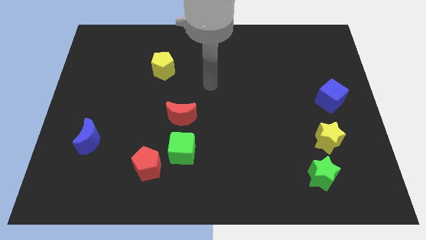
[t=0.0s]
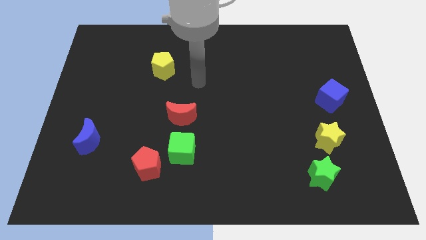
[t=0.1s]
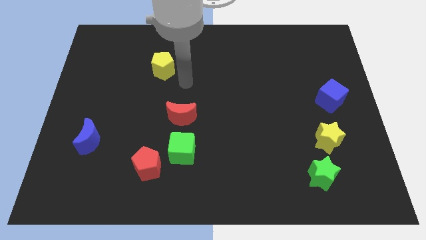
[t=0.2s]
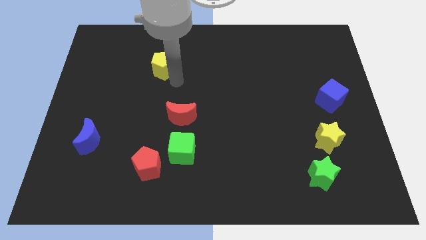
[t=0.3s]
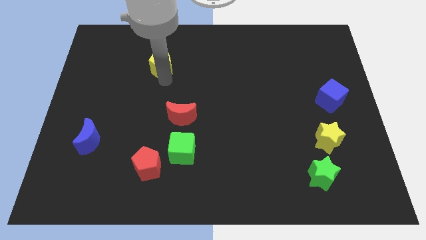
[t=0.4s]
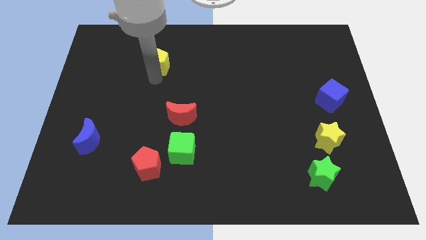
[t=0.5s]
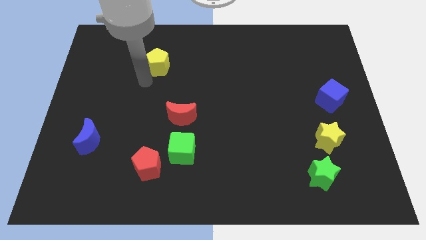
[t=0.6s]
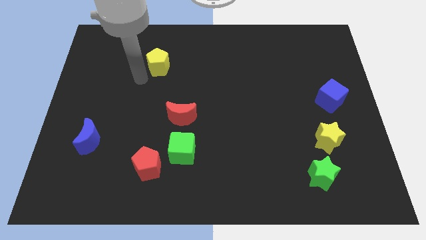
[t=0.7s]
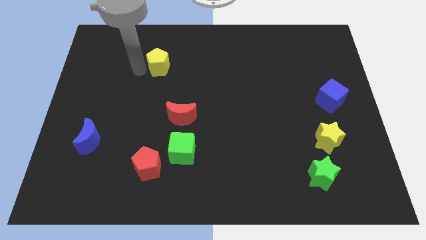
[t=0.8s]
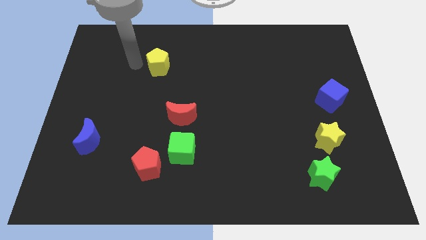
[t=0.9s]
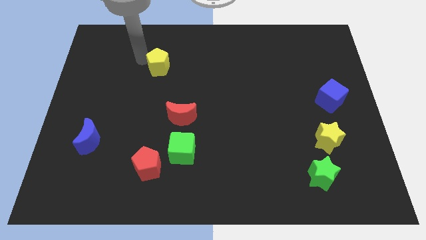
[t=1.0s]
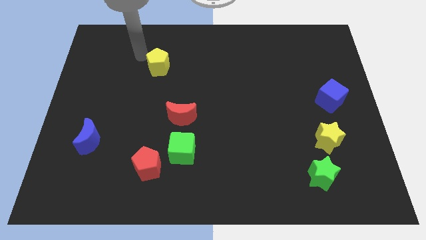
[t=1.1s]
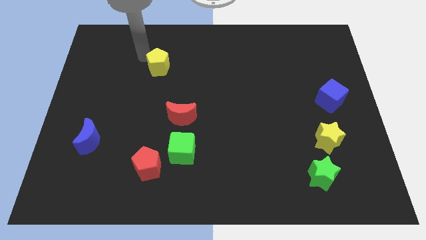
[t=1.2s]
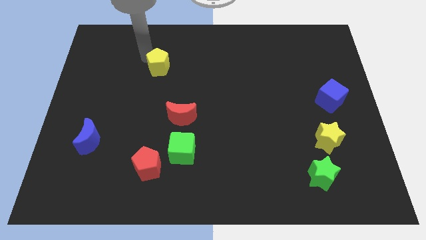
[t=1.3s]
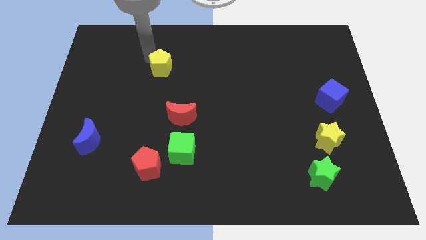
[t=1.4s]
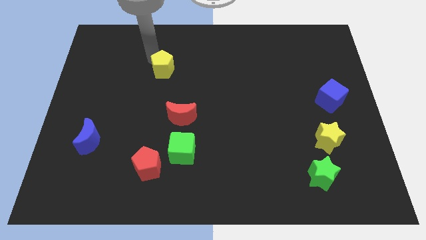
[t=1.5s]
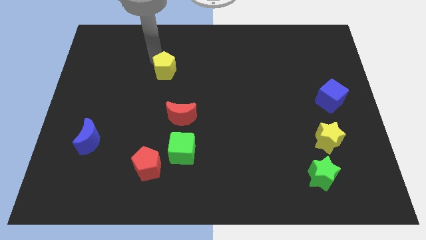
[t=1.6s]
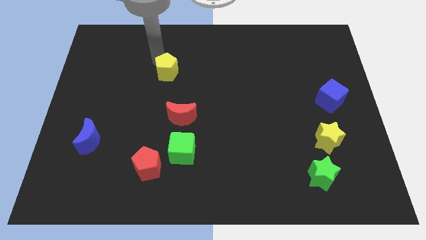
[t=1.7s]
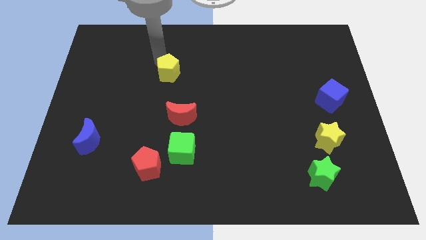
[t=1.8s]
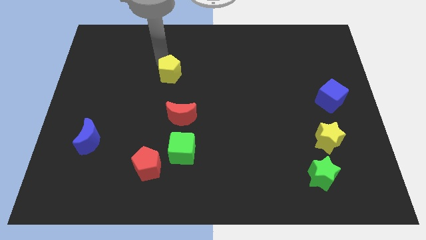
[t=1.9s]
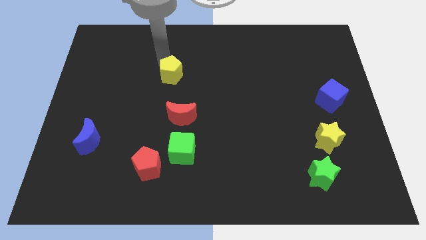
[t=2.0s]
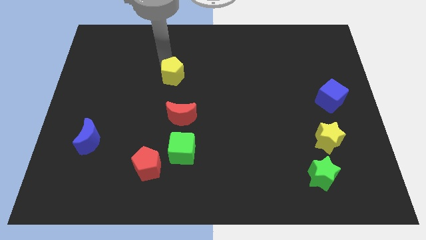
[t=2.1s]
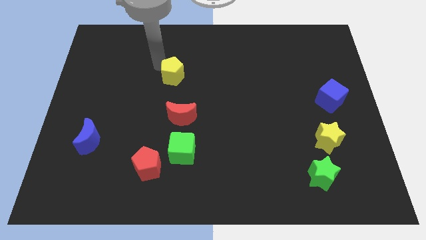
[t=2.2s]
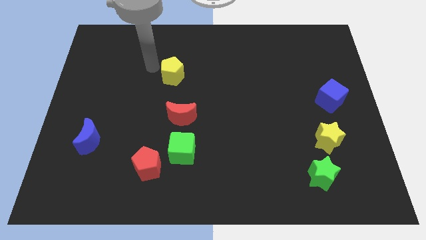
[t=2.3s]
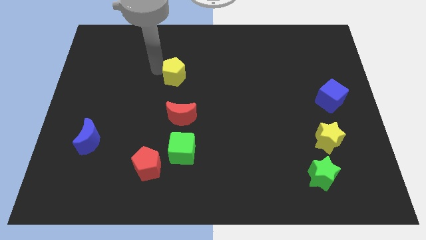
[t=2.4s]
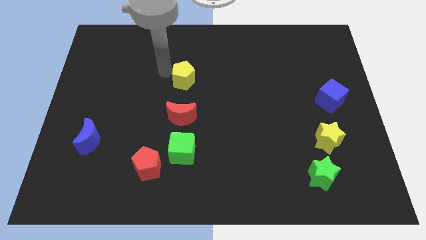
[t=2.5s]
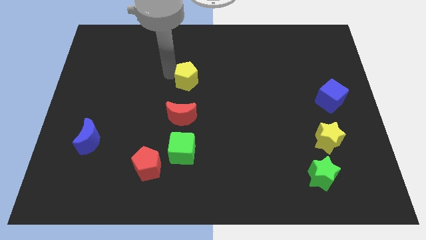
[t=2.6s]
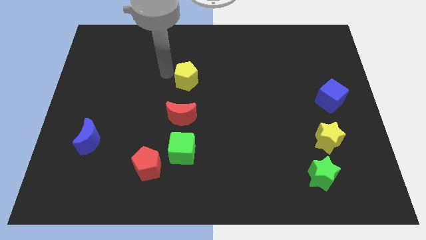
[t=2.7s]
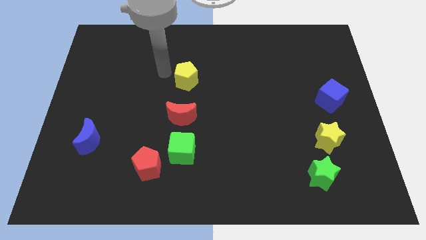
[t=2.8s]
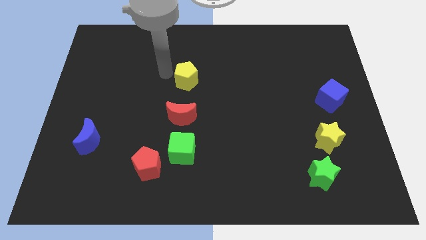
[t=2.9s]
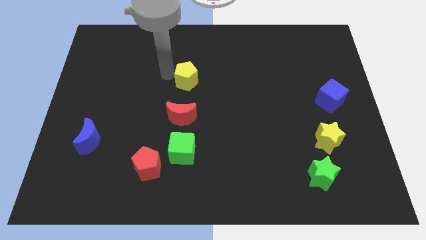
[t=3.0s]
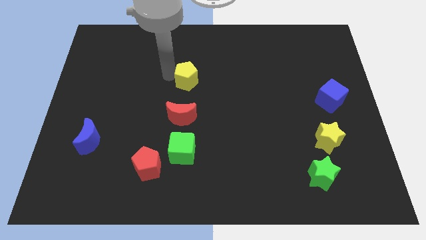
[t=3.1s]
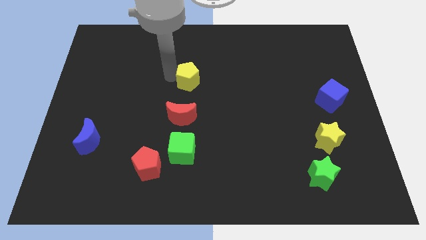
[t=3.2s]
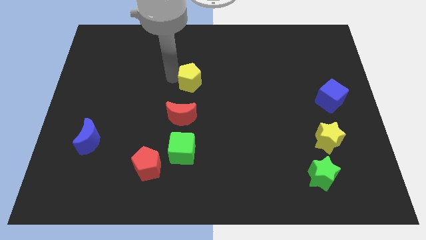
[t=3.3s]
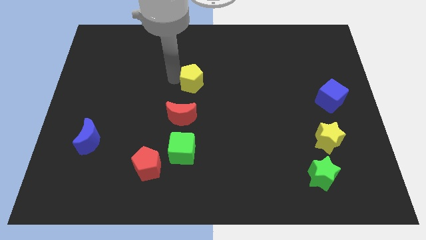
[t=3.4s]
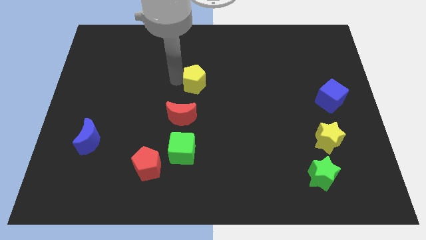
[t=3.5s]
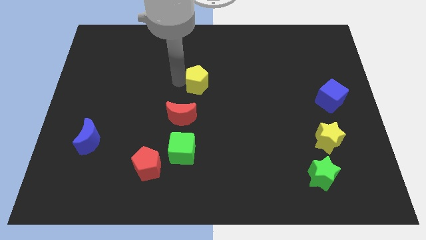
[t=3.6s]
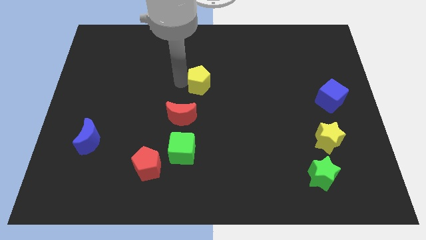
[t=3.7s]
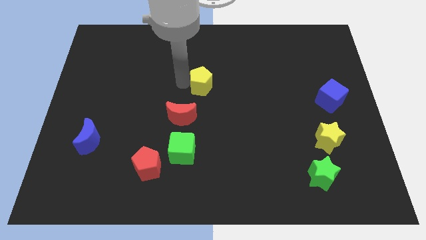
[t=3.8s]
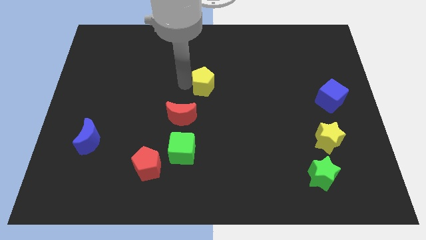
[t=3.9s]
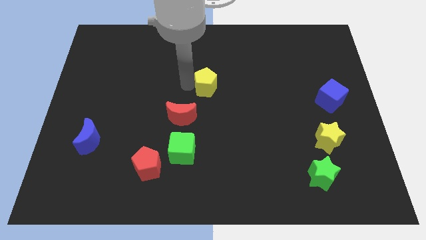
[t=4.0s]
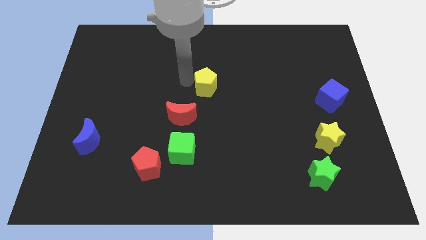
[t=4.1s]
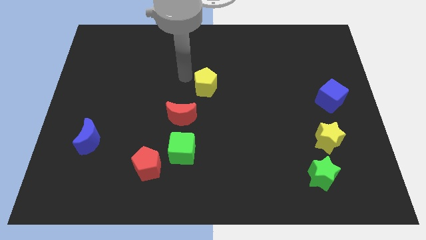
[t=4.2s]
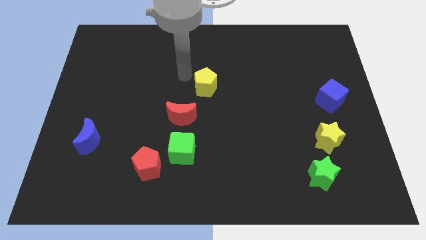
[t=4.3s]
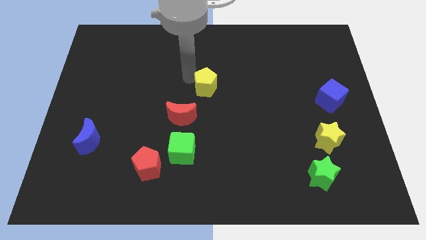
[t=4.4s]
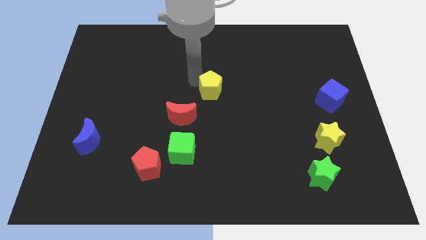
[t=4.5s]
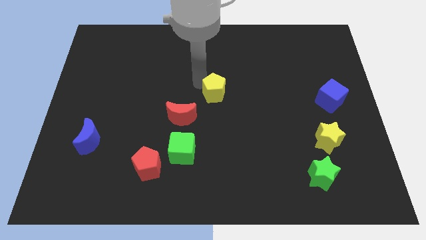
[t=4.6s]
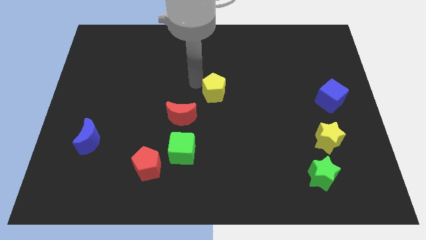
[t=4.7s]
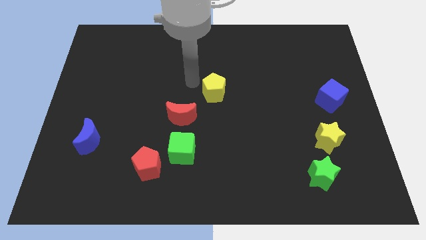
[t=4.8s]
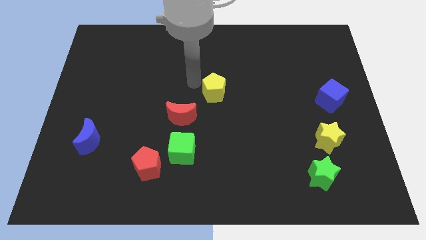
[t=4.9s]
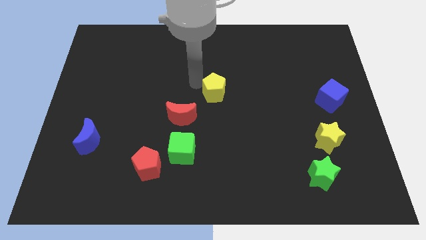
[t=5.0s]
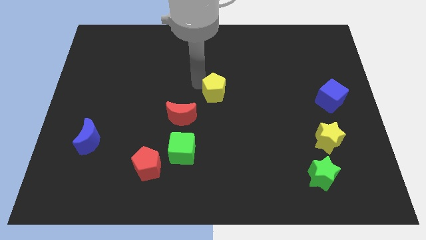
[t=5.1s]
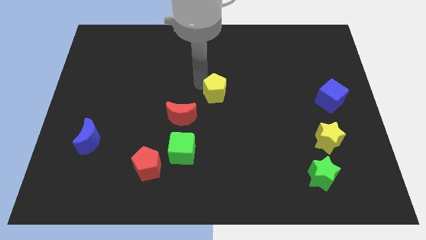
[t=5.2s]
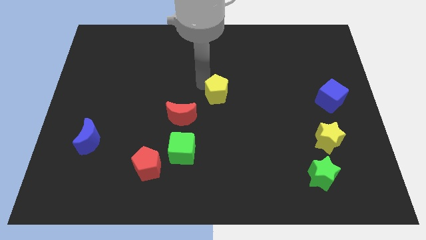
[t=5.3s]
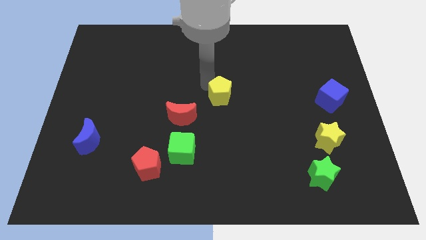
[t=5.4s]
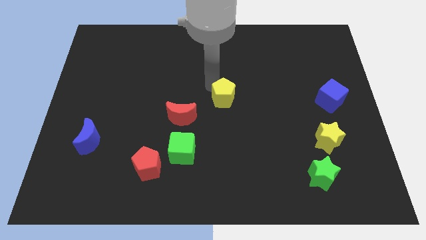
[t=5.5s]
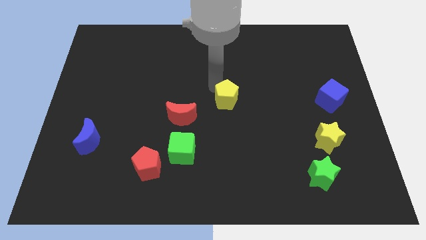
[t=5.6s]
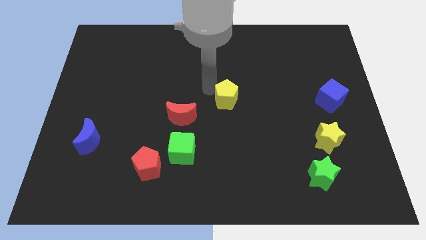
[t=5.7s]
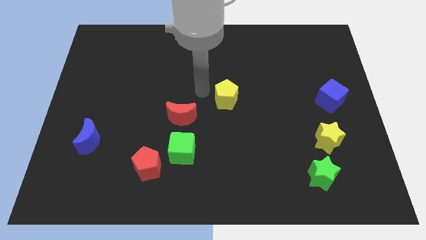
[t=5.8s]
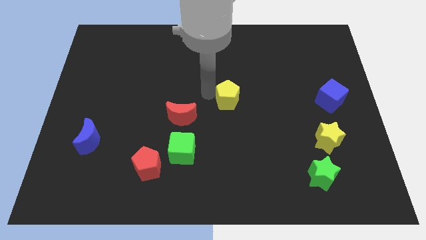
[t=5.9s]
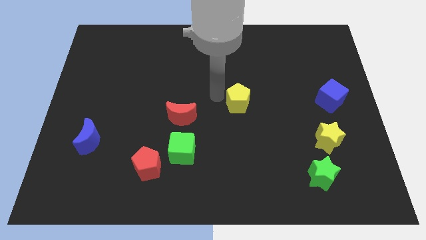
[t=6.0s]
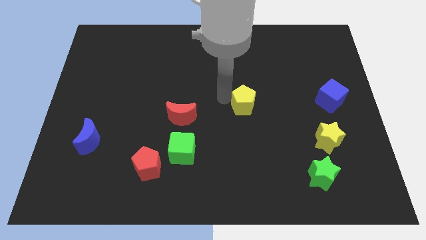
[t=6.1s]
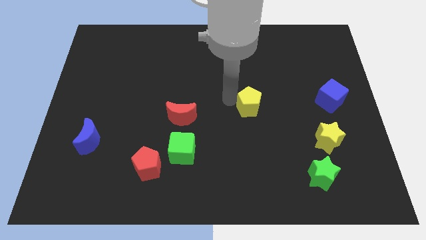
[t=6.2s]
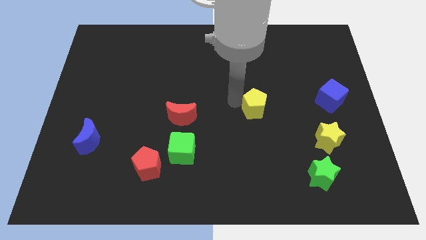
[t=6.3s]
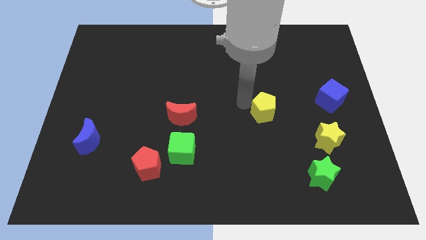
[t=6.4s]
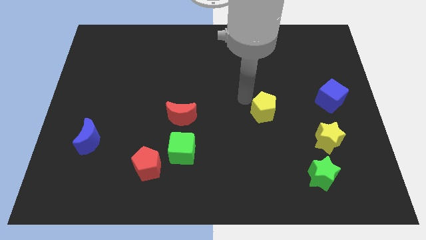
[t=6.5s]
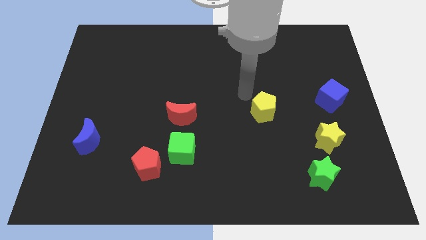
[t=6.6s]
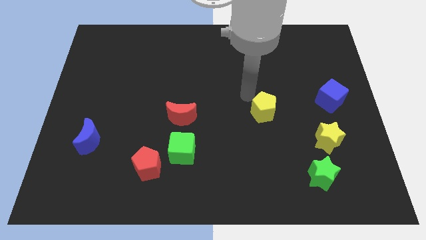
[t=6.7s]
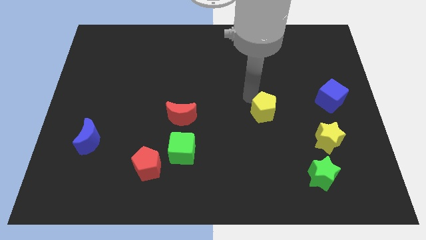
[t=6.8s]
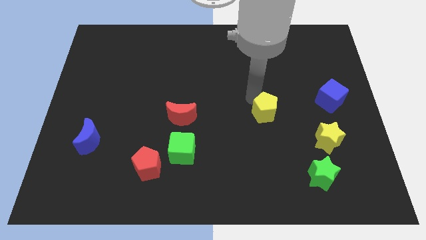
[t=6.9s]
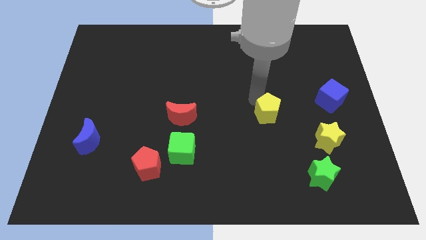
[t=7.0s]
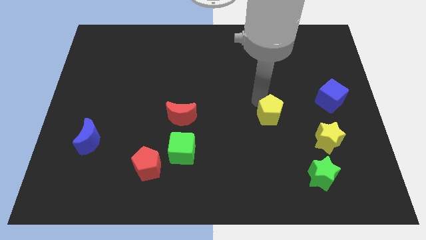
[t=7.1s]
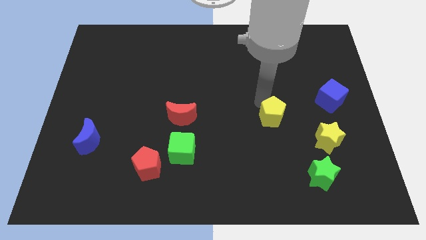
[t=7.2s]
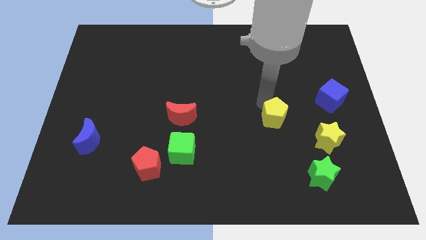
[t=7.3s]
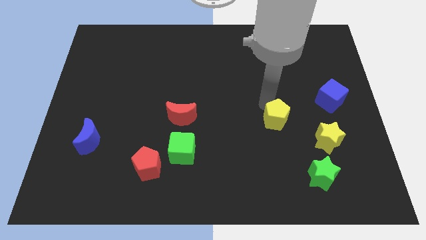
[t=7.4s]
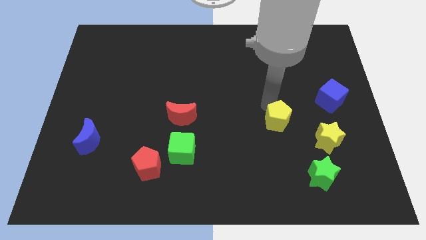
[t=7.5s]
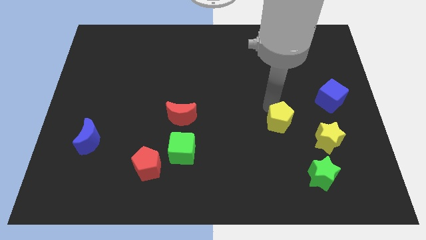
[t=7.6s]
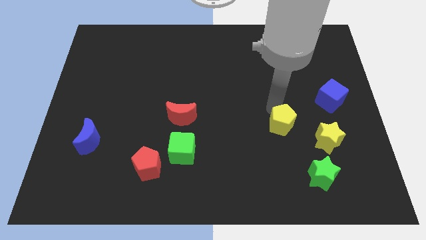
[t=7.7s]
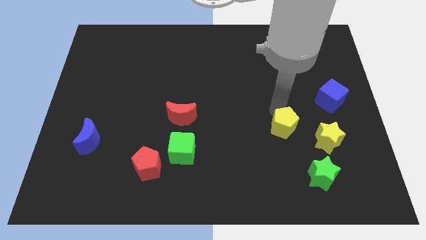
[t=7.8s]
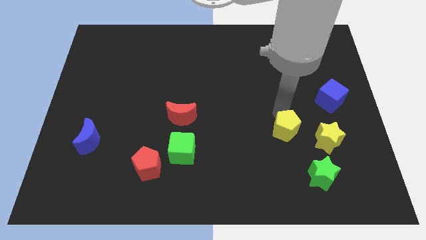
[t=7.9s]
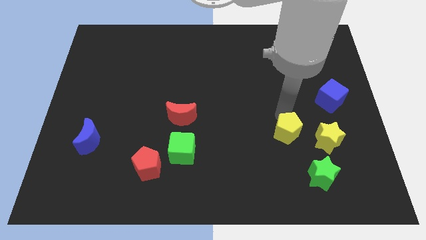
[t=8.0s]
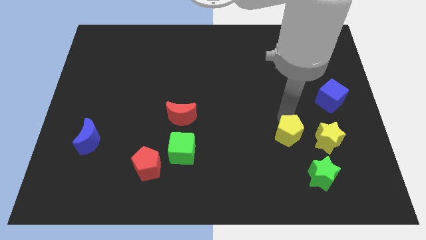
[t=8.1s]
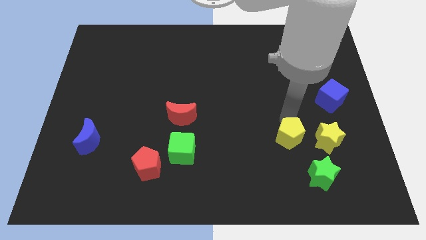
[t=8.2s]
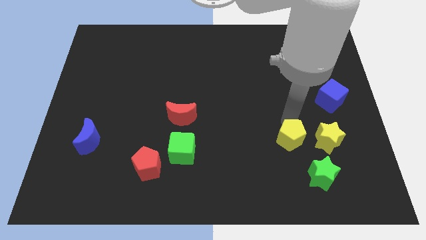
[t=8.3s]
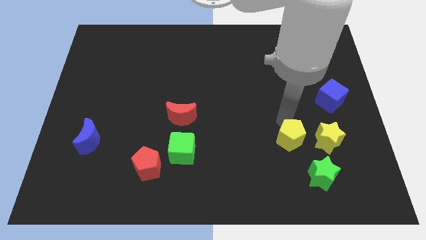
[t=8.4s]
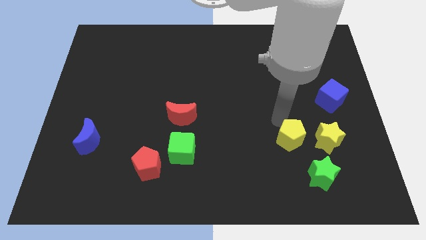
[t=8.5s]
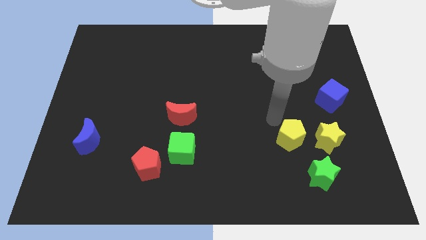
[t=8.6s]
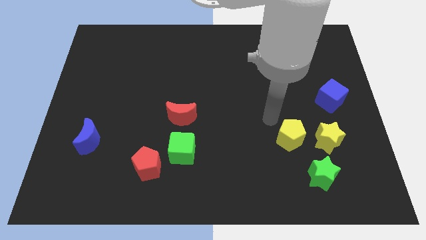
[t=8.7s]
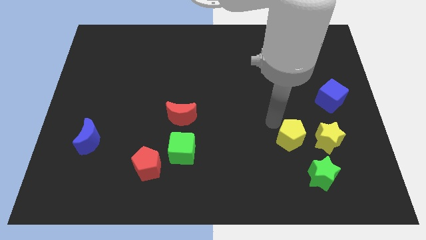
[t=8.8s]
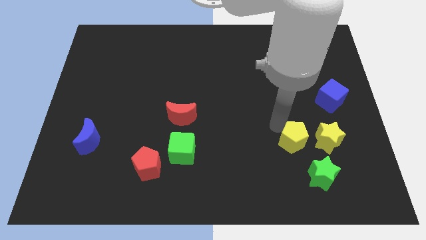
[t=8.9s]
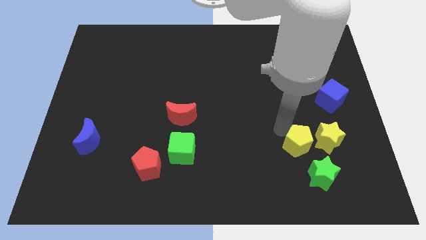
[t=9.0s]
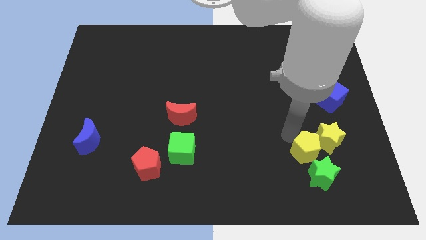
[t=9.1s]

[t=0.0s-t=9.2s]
push the yellow pentagon next to the green star
